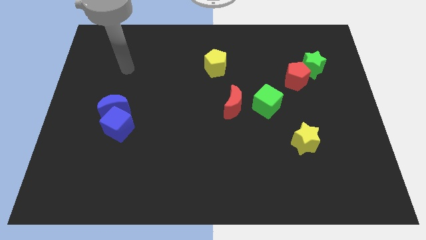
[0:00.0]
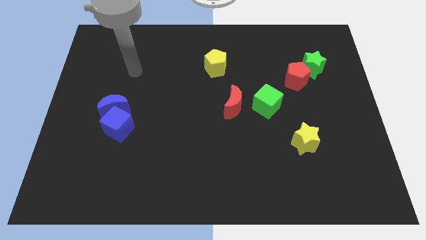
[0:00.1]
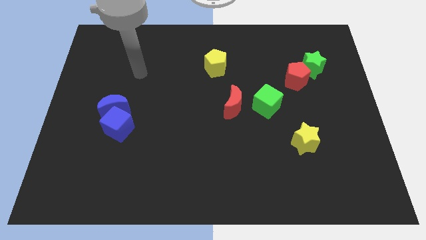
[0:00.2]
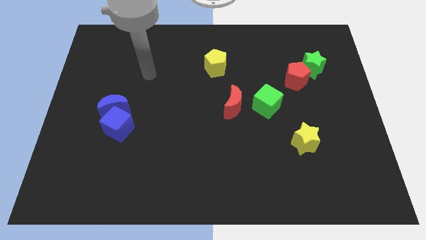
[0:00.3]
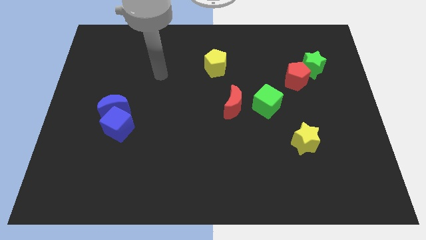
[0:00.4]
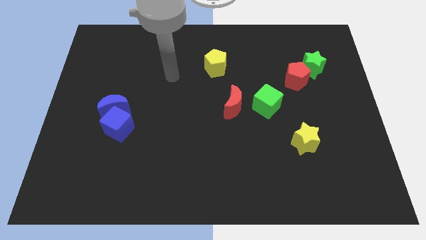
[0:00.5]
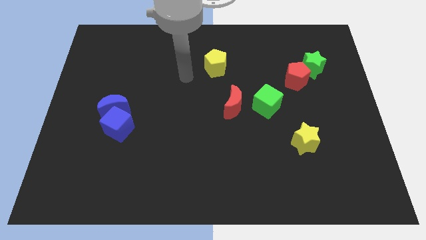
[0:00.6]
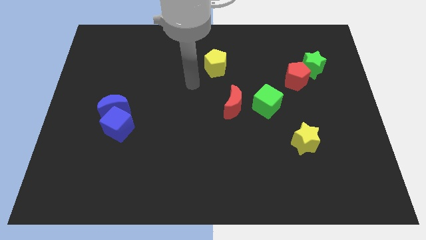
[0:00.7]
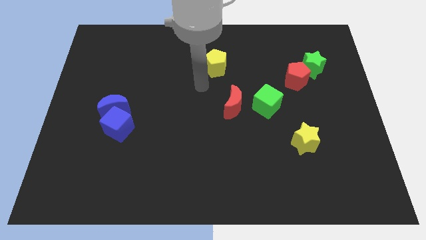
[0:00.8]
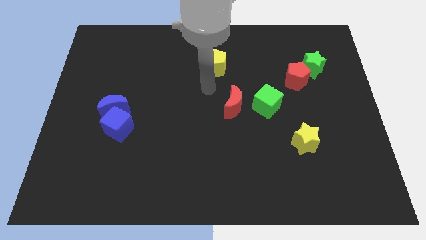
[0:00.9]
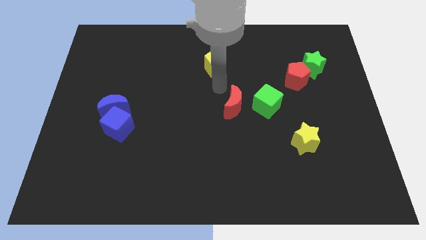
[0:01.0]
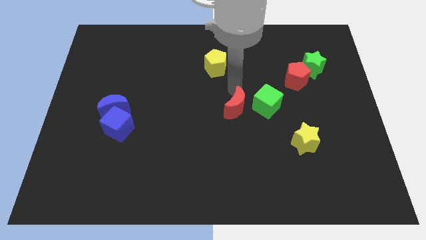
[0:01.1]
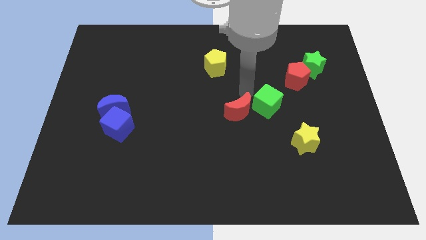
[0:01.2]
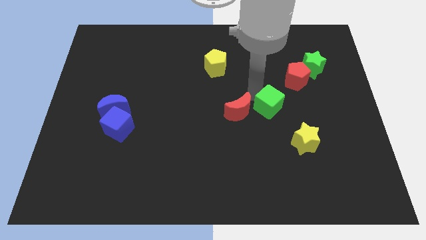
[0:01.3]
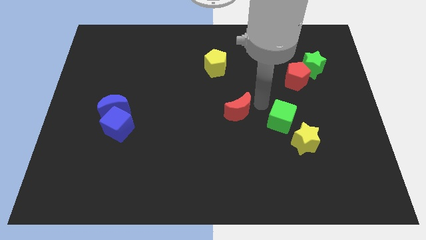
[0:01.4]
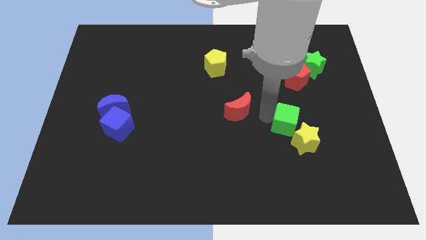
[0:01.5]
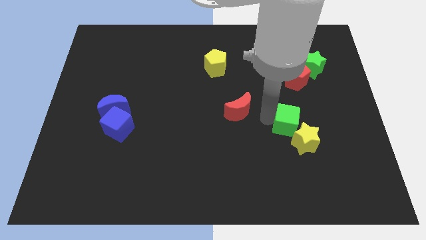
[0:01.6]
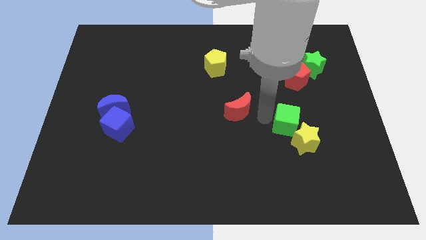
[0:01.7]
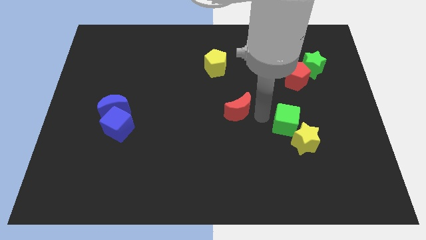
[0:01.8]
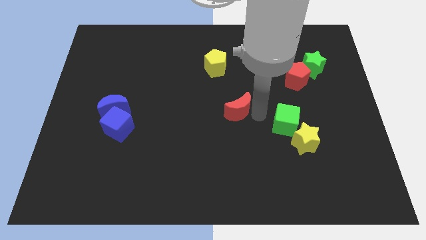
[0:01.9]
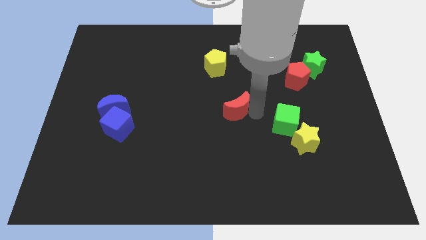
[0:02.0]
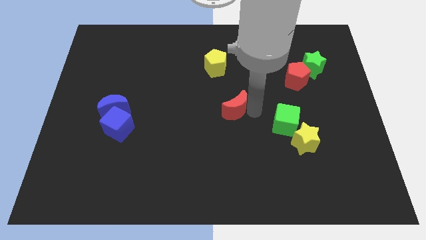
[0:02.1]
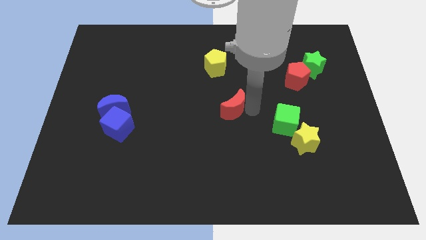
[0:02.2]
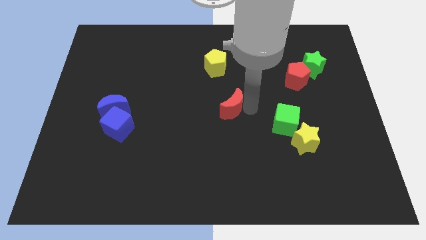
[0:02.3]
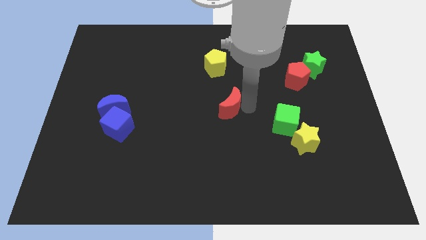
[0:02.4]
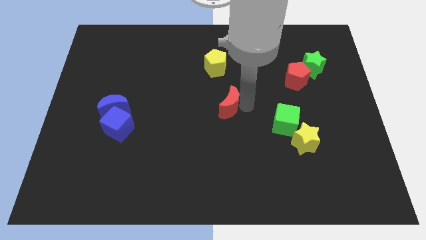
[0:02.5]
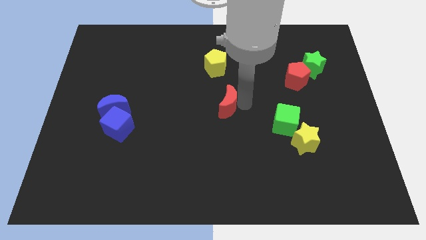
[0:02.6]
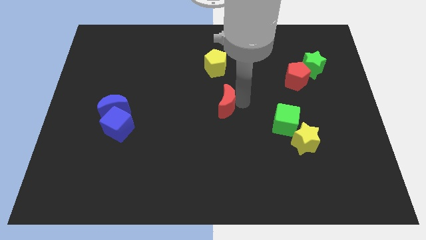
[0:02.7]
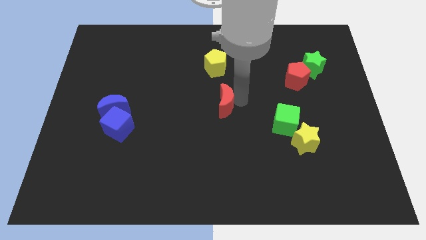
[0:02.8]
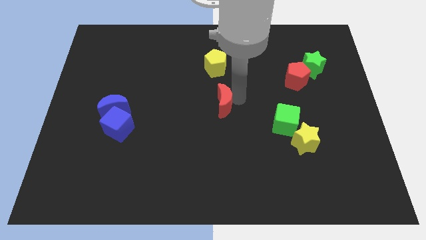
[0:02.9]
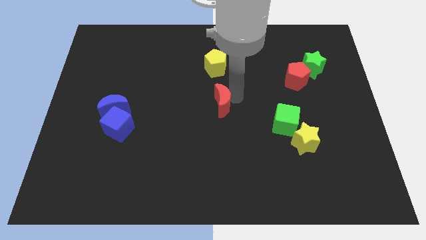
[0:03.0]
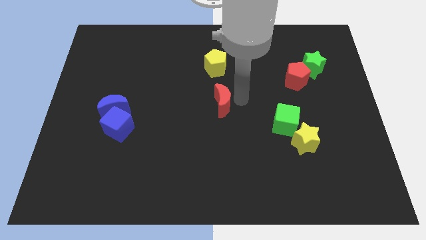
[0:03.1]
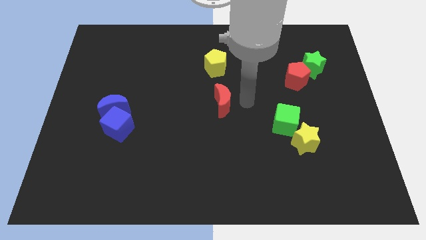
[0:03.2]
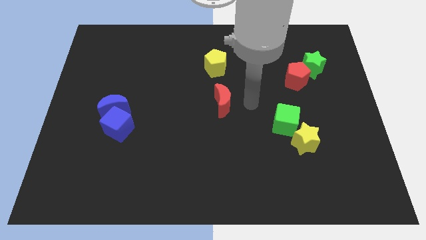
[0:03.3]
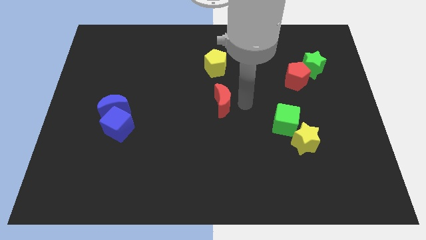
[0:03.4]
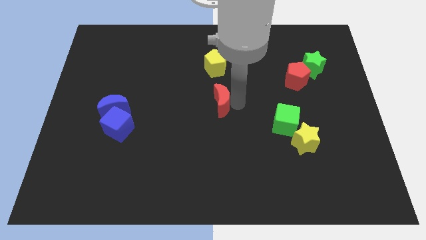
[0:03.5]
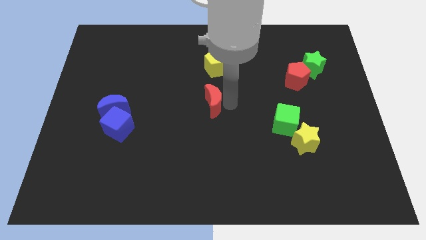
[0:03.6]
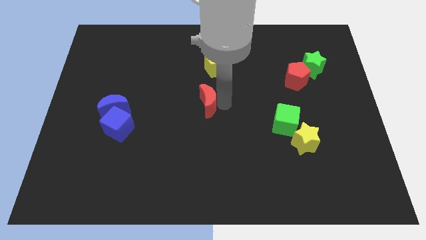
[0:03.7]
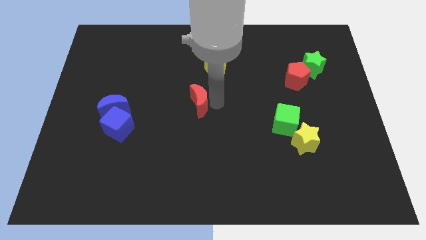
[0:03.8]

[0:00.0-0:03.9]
move the red moon to the left somewhat

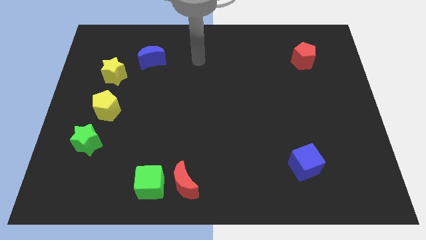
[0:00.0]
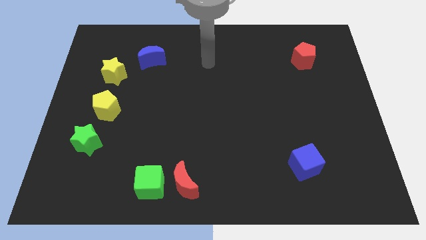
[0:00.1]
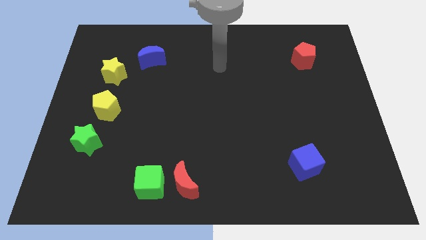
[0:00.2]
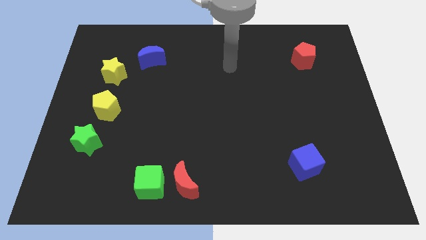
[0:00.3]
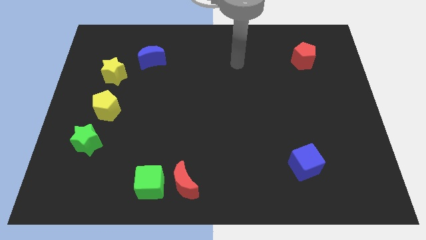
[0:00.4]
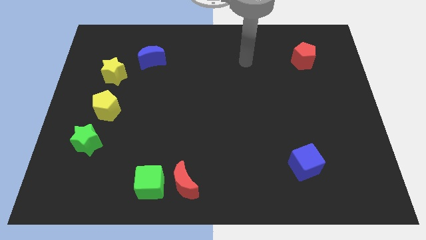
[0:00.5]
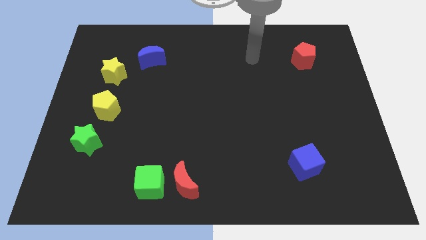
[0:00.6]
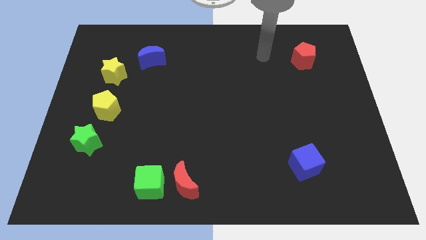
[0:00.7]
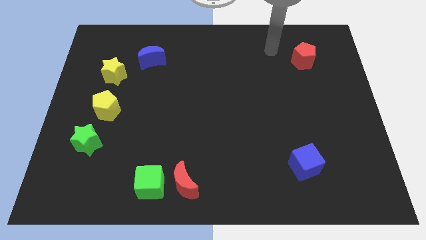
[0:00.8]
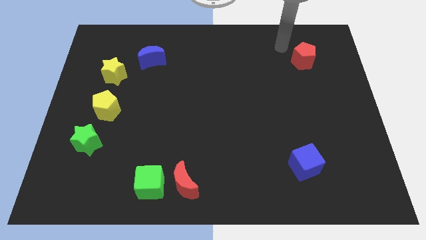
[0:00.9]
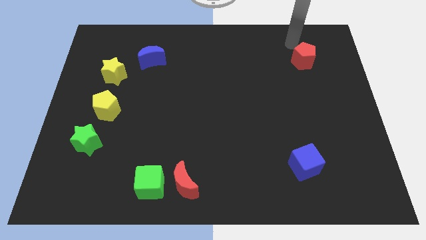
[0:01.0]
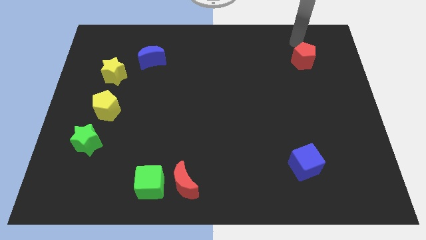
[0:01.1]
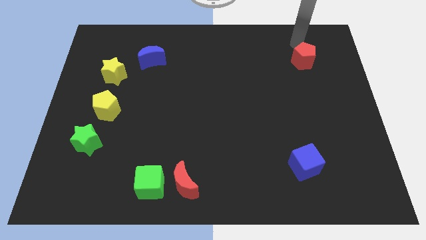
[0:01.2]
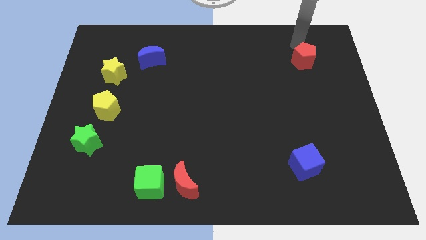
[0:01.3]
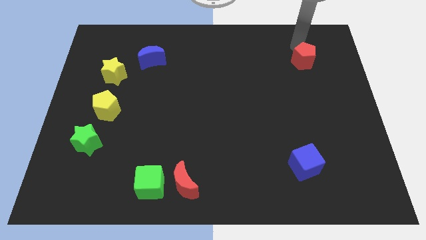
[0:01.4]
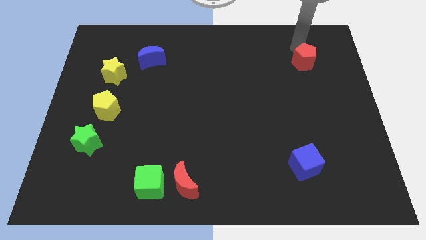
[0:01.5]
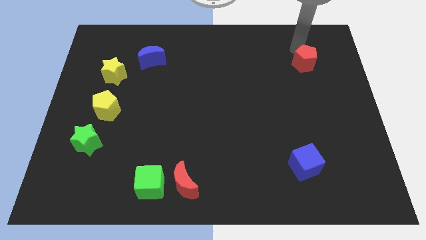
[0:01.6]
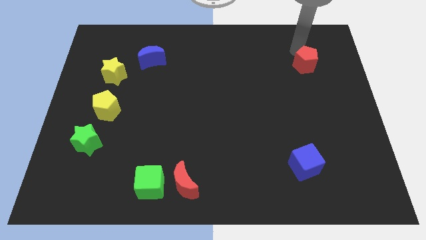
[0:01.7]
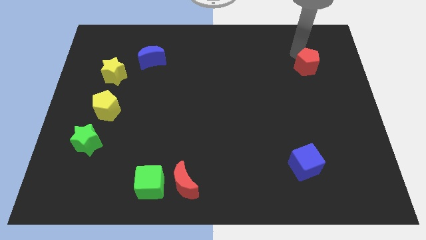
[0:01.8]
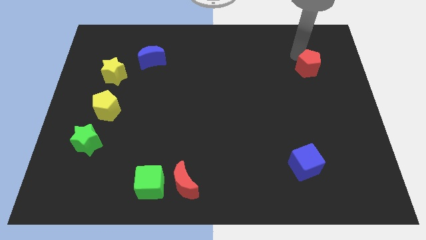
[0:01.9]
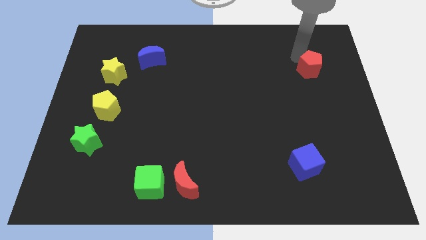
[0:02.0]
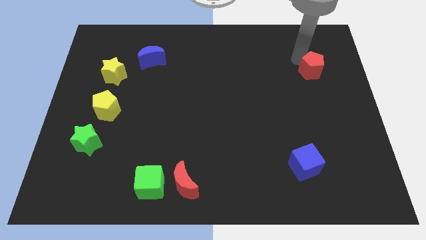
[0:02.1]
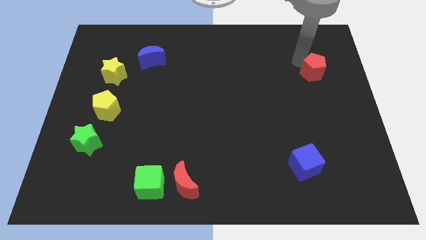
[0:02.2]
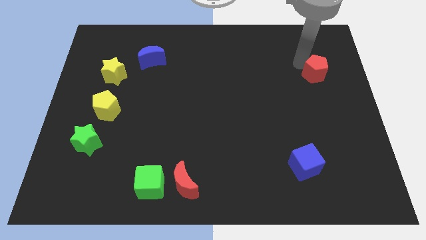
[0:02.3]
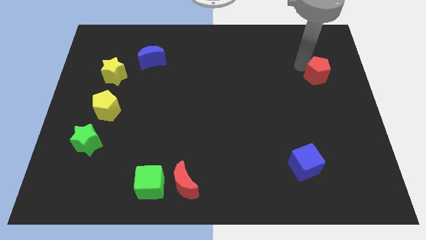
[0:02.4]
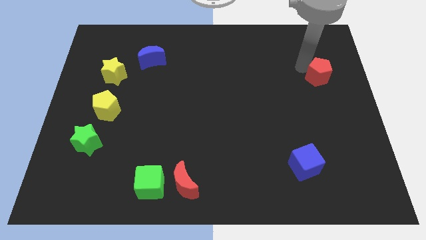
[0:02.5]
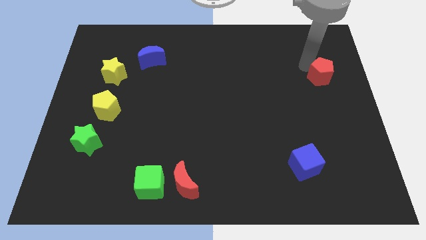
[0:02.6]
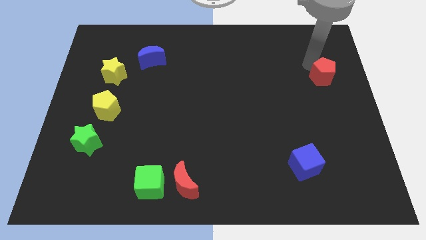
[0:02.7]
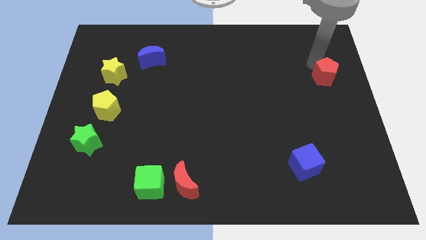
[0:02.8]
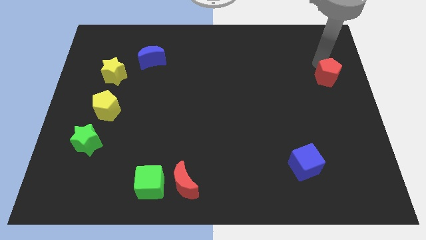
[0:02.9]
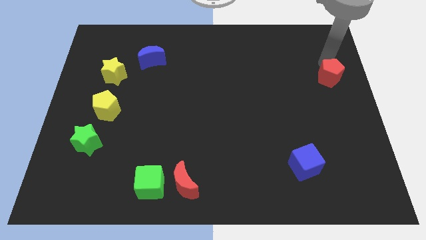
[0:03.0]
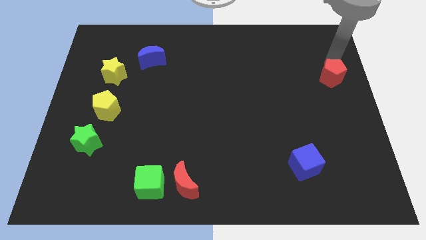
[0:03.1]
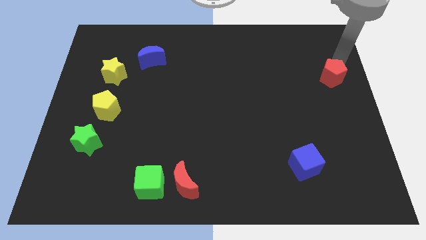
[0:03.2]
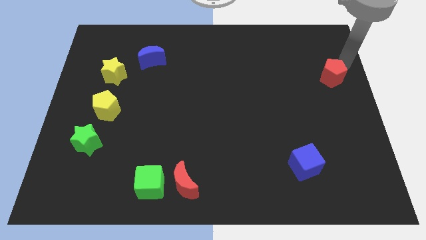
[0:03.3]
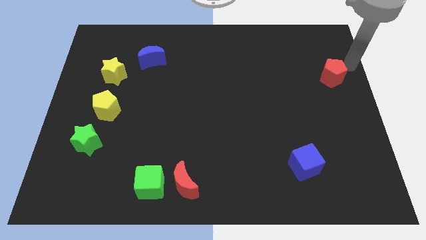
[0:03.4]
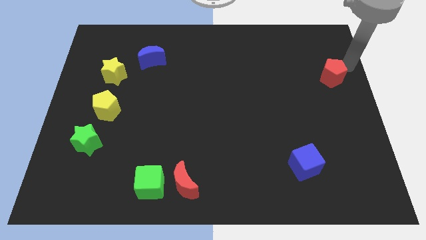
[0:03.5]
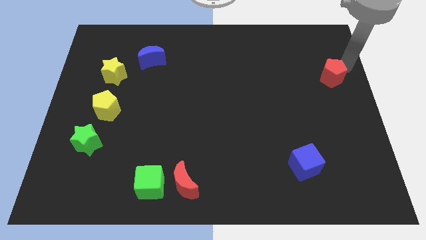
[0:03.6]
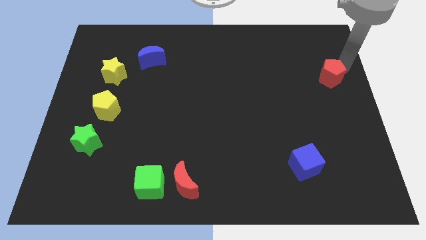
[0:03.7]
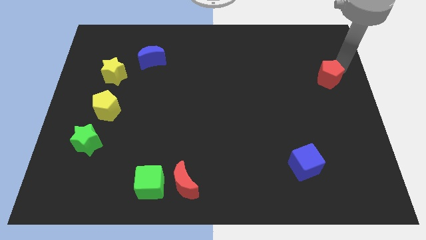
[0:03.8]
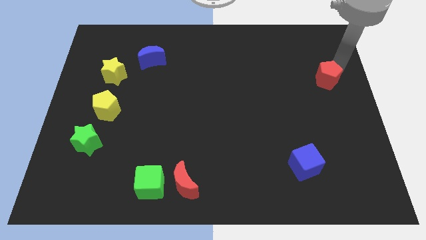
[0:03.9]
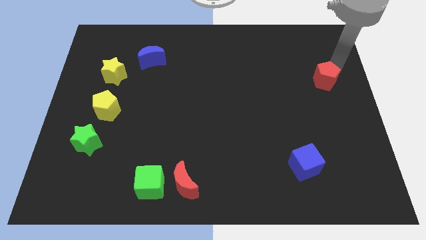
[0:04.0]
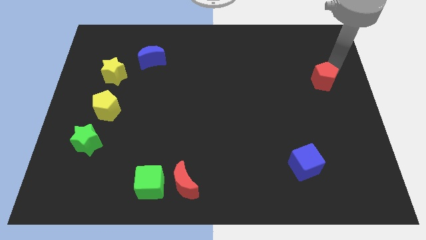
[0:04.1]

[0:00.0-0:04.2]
slide the red pentagon down somewhat

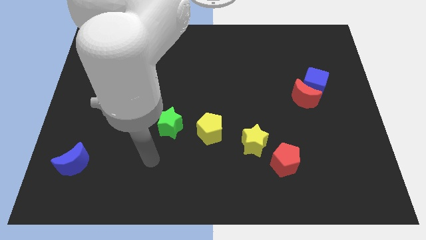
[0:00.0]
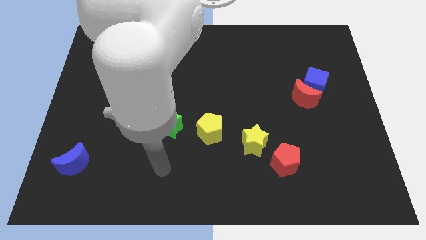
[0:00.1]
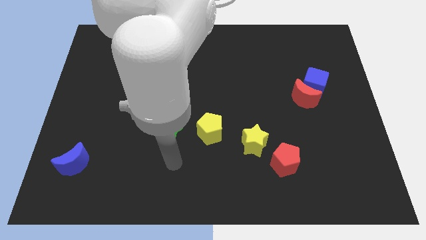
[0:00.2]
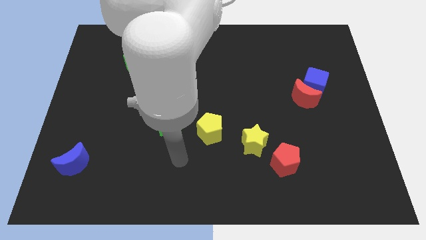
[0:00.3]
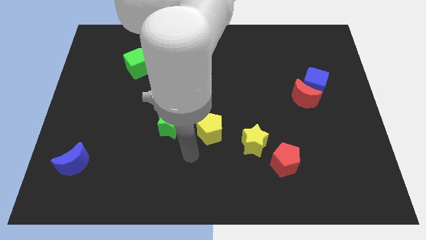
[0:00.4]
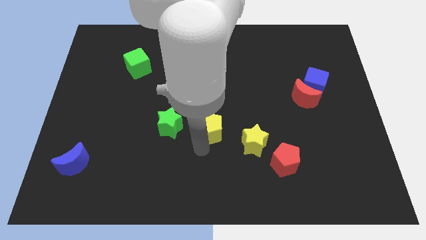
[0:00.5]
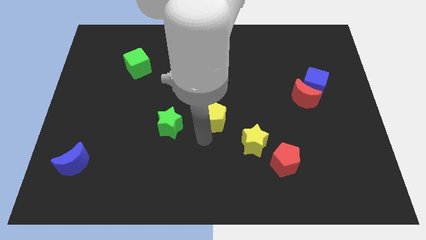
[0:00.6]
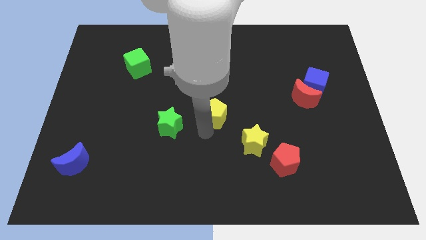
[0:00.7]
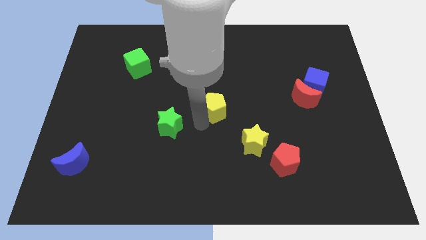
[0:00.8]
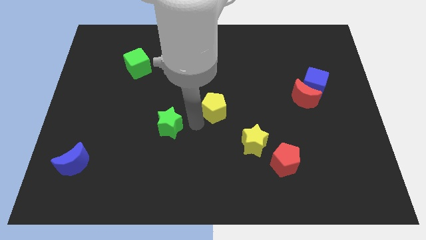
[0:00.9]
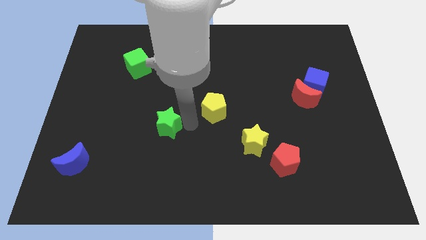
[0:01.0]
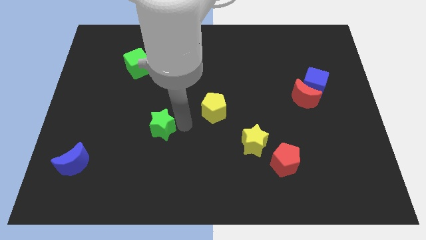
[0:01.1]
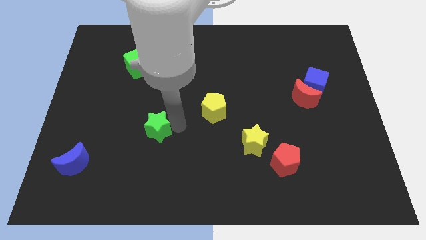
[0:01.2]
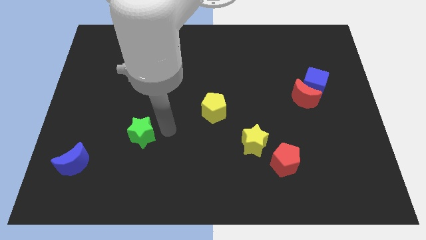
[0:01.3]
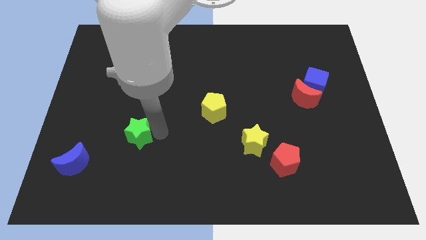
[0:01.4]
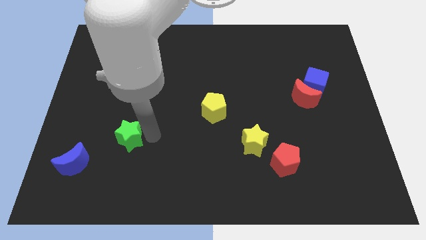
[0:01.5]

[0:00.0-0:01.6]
slightly move the green star left
